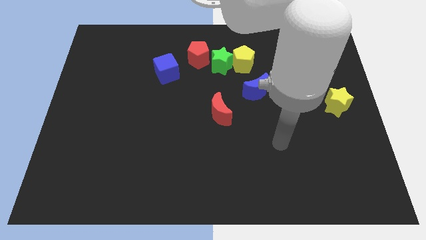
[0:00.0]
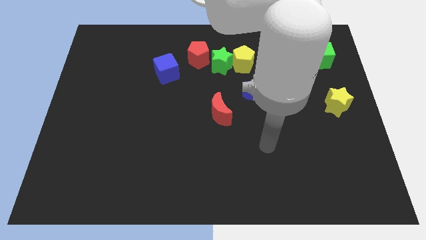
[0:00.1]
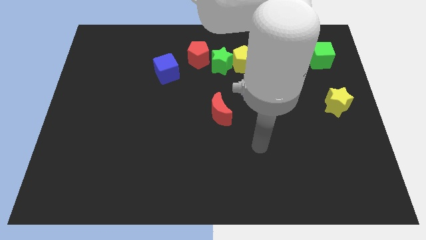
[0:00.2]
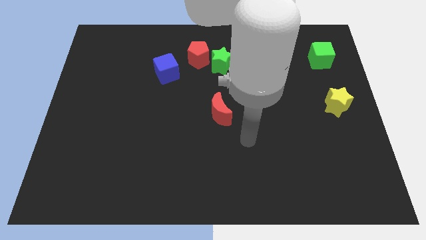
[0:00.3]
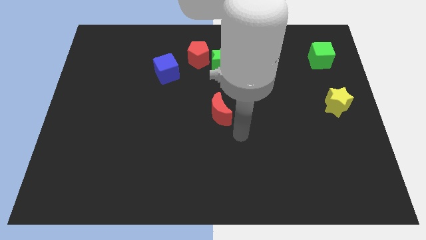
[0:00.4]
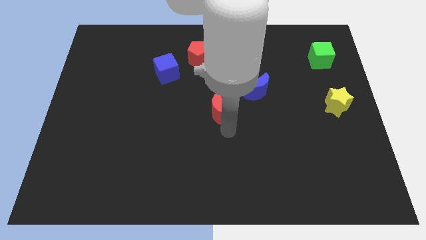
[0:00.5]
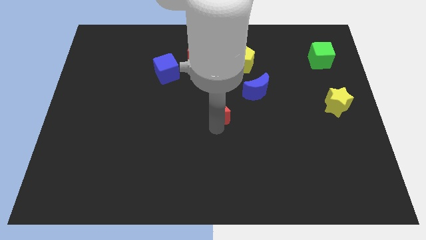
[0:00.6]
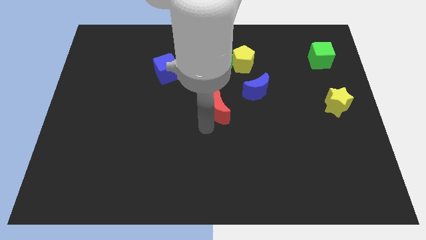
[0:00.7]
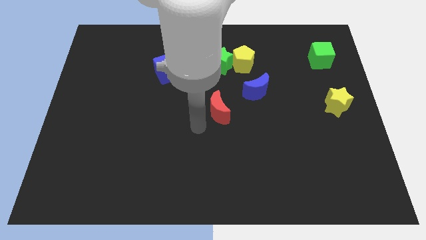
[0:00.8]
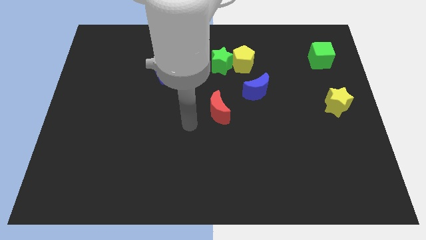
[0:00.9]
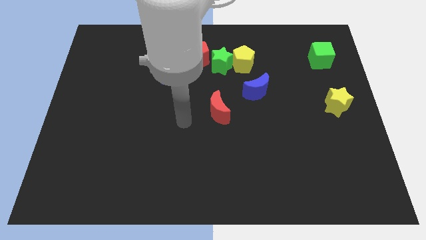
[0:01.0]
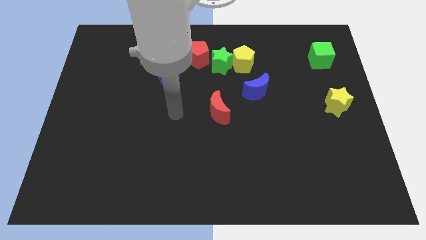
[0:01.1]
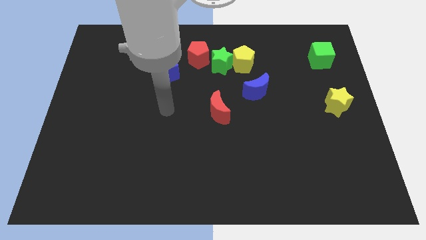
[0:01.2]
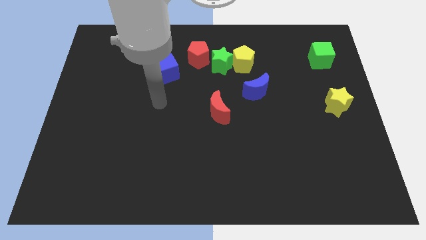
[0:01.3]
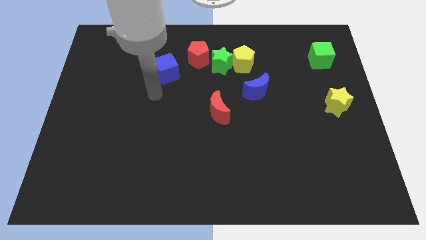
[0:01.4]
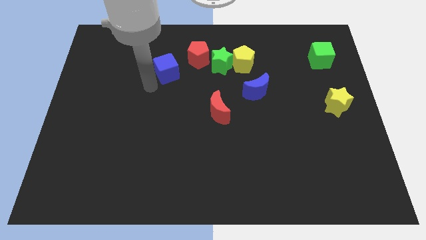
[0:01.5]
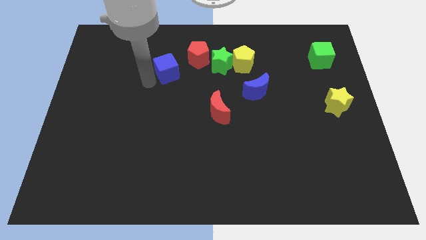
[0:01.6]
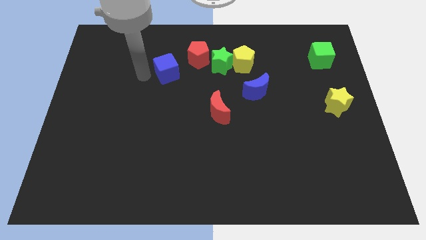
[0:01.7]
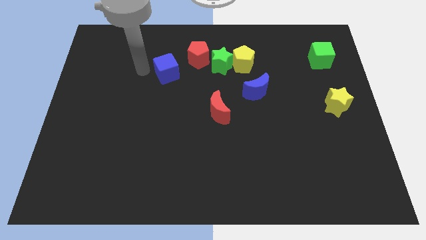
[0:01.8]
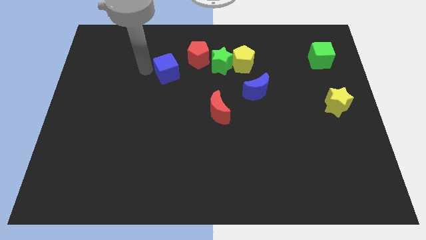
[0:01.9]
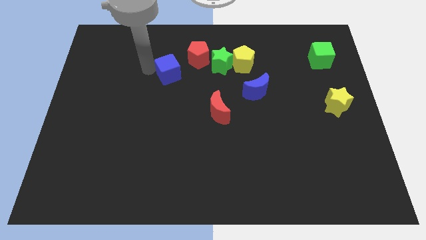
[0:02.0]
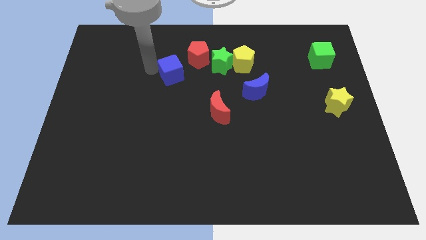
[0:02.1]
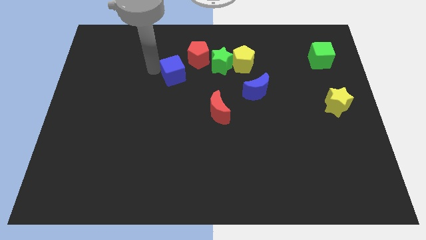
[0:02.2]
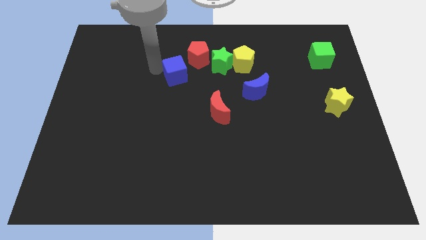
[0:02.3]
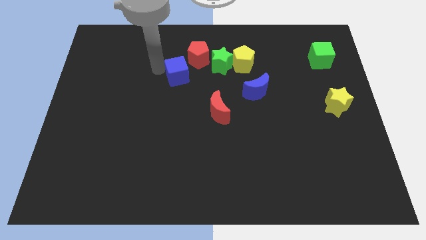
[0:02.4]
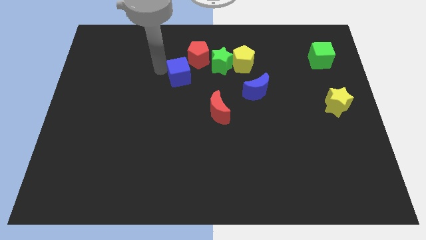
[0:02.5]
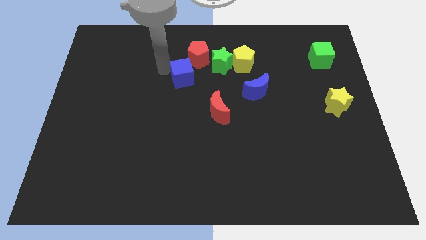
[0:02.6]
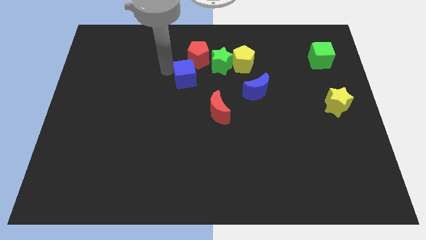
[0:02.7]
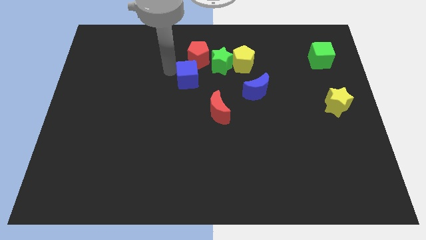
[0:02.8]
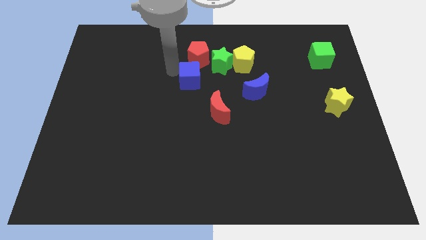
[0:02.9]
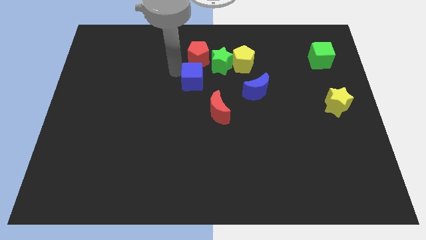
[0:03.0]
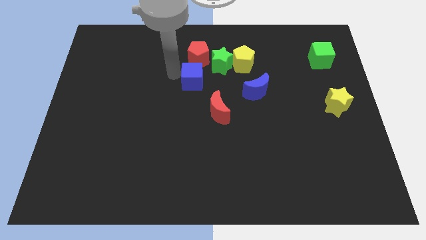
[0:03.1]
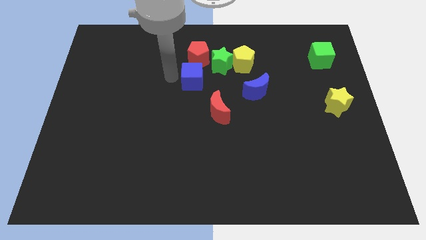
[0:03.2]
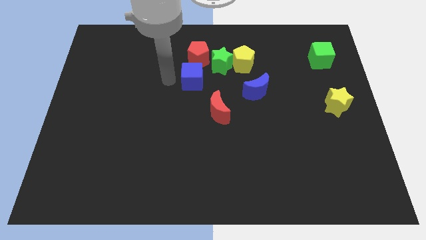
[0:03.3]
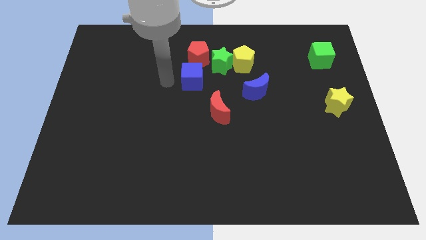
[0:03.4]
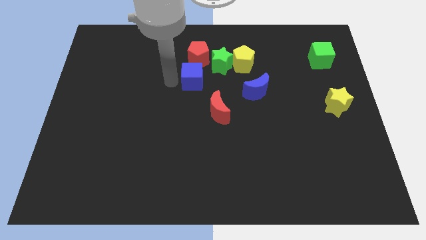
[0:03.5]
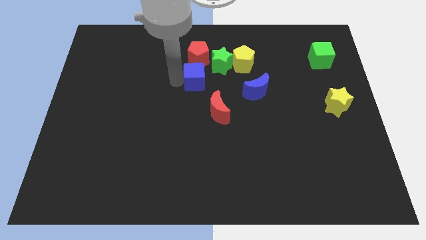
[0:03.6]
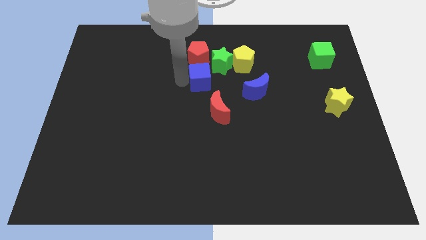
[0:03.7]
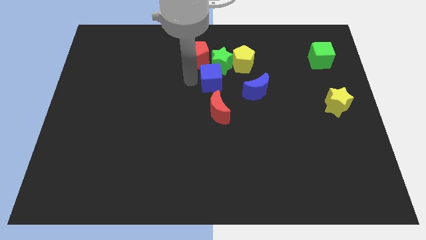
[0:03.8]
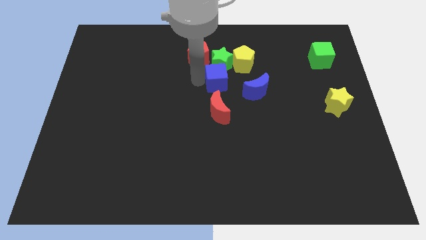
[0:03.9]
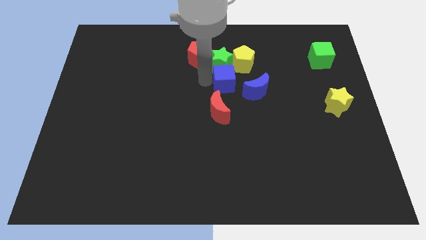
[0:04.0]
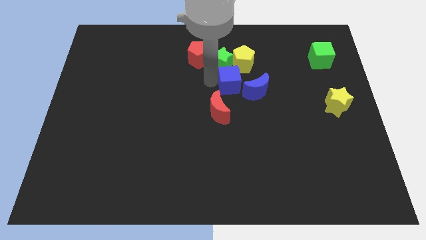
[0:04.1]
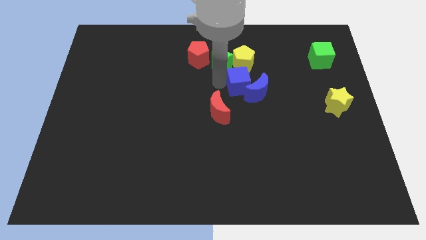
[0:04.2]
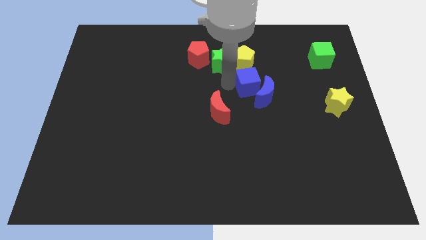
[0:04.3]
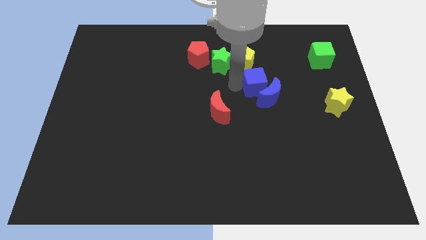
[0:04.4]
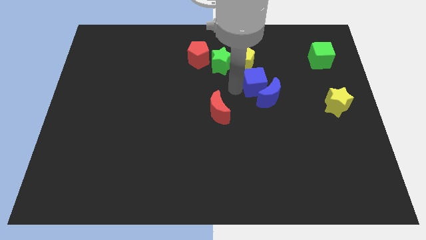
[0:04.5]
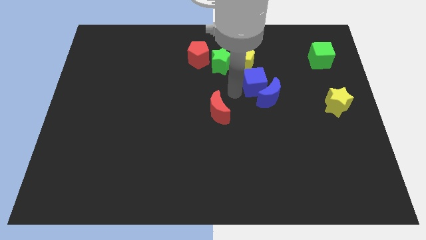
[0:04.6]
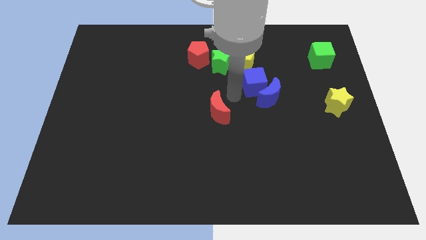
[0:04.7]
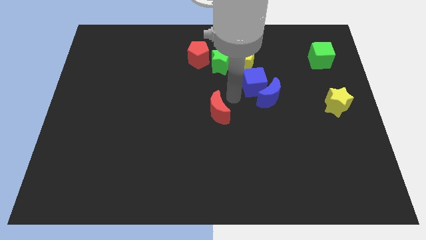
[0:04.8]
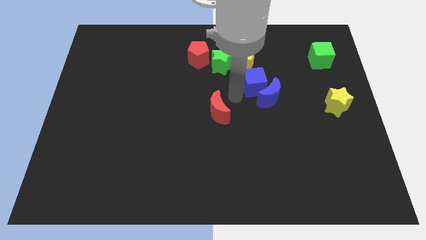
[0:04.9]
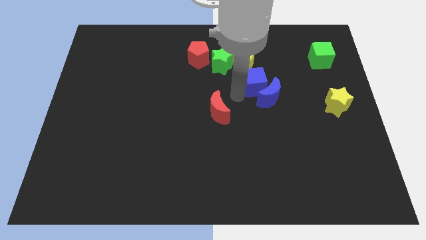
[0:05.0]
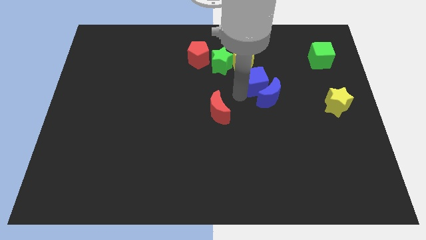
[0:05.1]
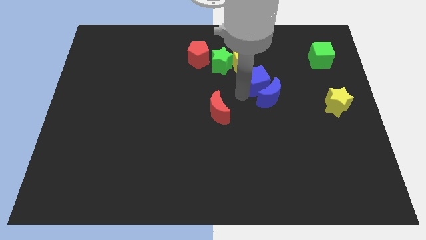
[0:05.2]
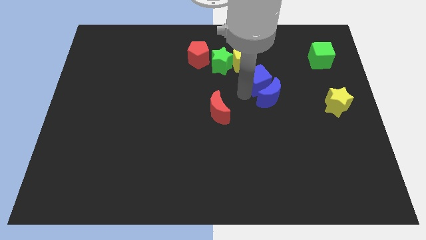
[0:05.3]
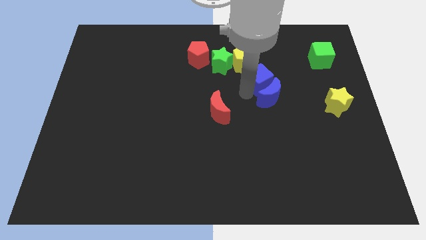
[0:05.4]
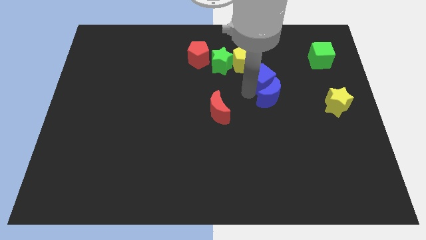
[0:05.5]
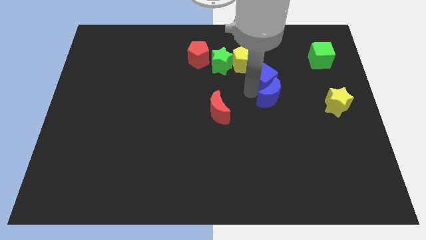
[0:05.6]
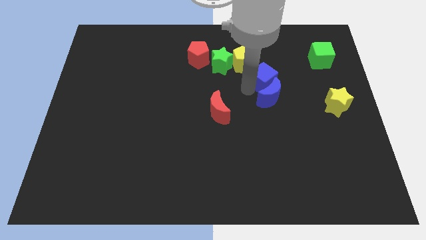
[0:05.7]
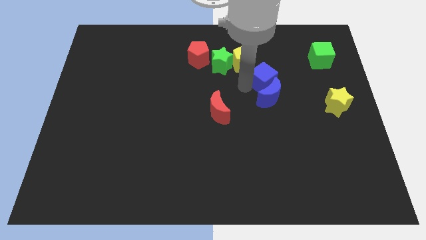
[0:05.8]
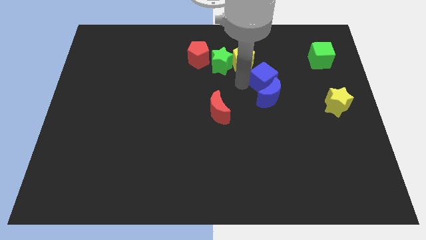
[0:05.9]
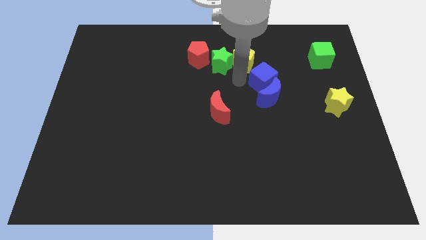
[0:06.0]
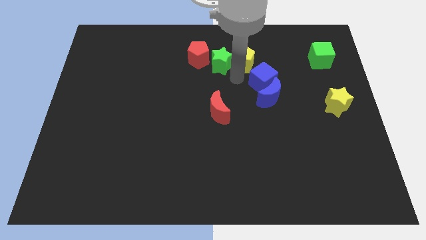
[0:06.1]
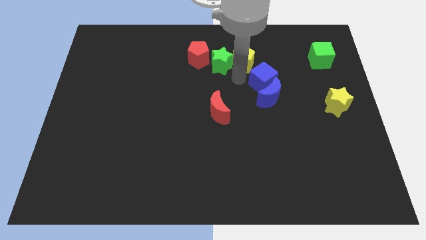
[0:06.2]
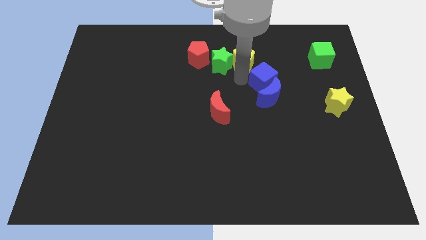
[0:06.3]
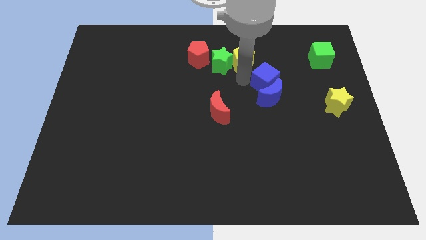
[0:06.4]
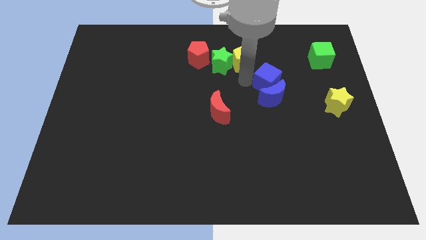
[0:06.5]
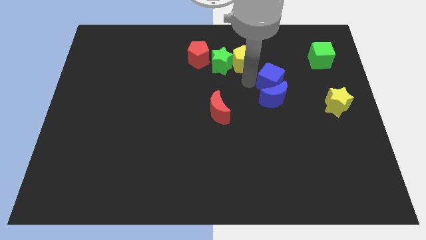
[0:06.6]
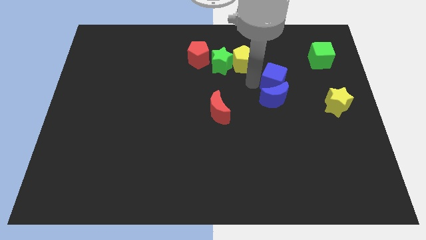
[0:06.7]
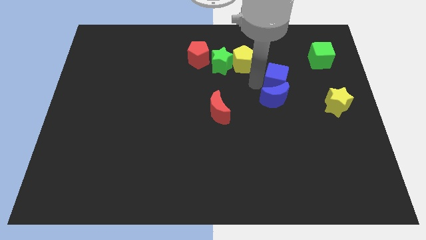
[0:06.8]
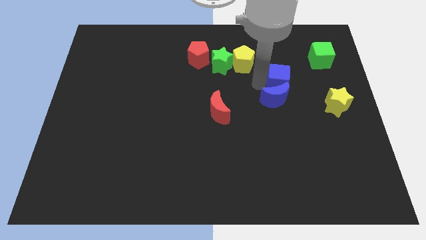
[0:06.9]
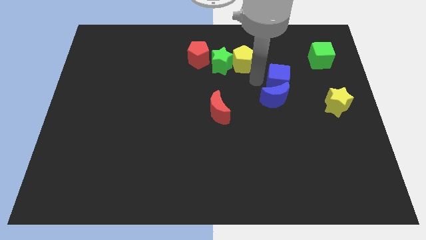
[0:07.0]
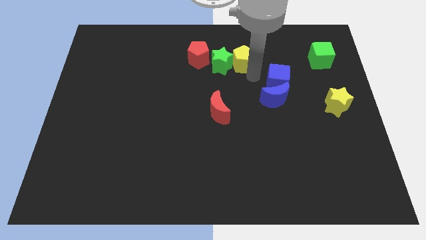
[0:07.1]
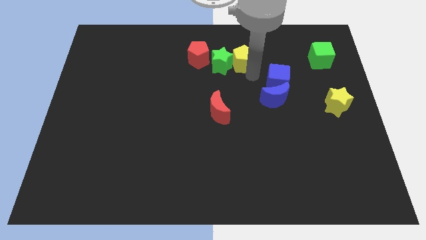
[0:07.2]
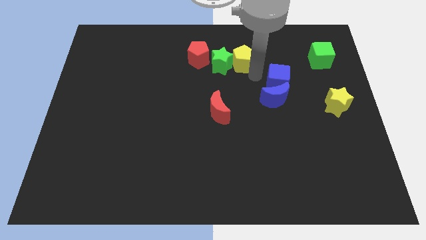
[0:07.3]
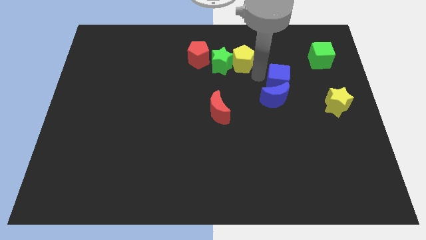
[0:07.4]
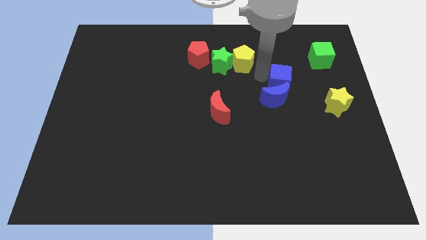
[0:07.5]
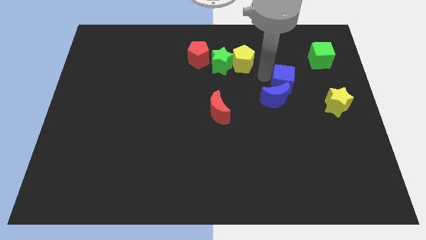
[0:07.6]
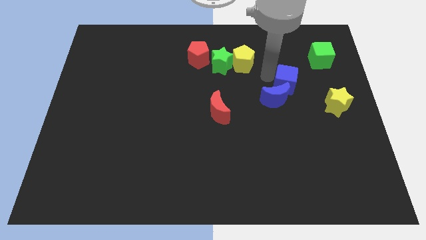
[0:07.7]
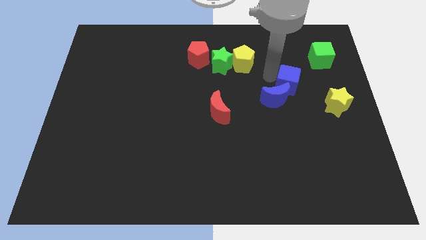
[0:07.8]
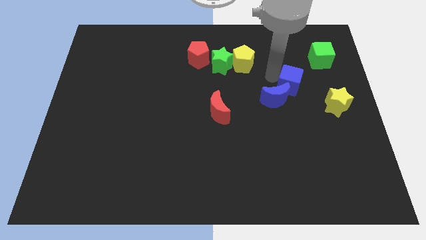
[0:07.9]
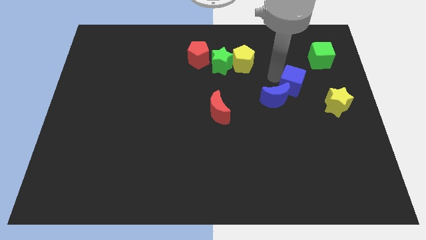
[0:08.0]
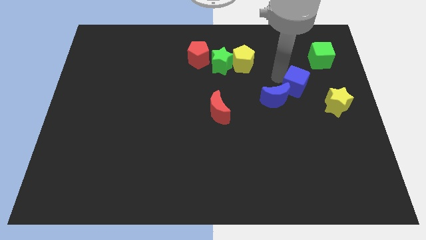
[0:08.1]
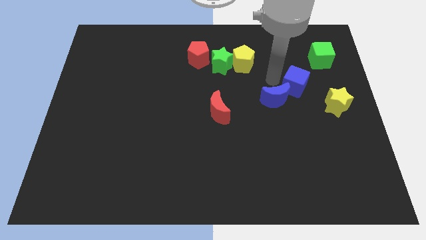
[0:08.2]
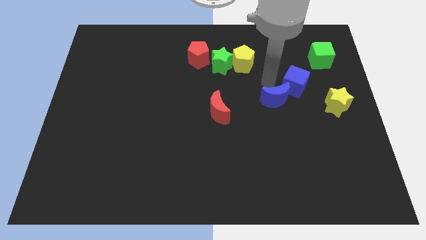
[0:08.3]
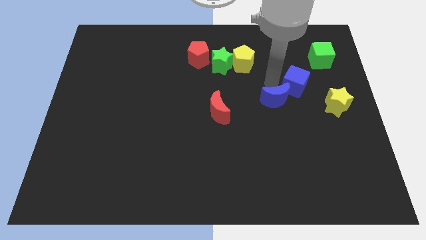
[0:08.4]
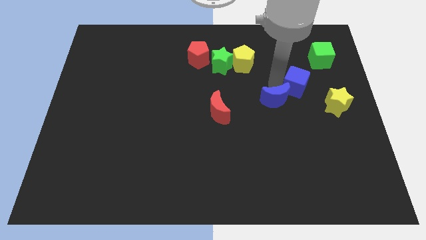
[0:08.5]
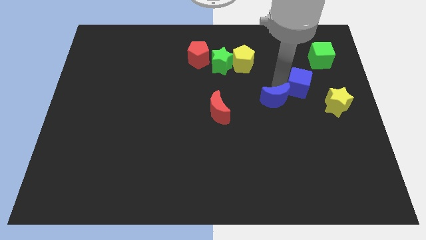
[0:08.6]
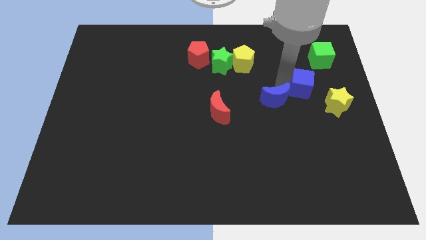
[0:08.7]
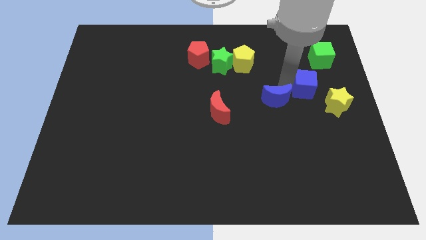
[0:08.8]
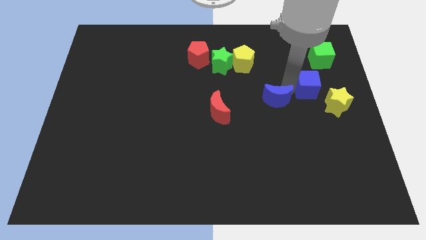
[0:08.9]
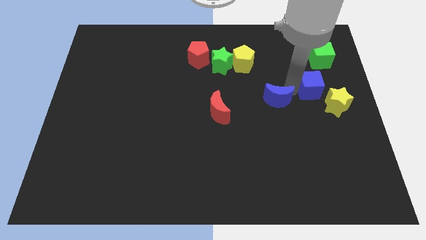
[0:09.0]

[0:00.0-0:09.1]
slide the blue cube to the bottom side of the green cube
